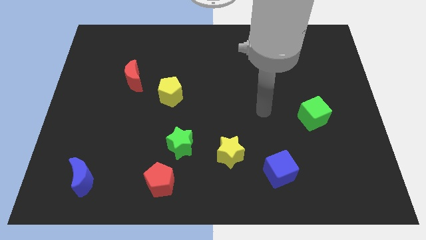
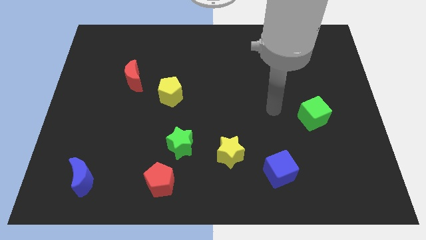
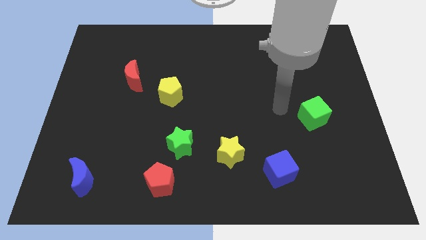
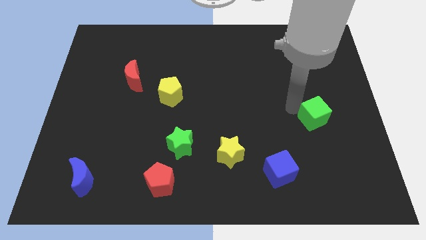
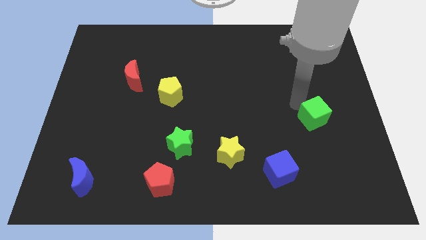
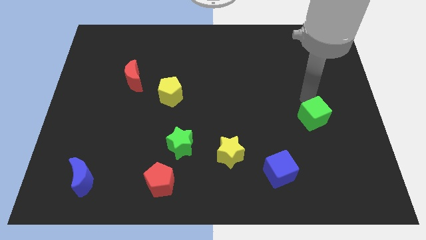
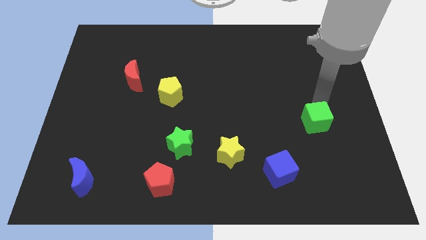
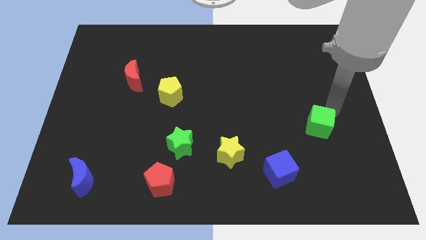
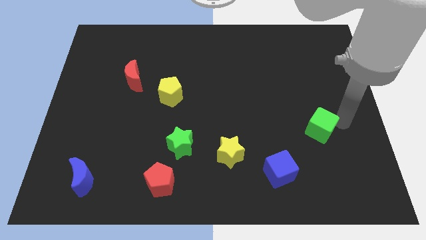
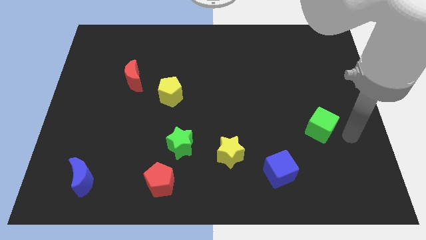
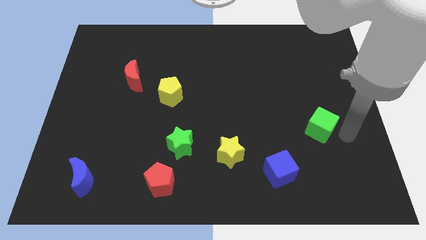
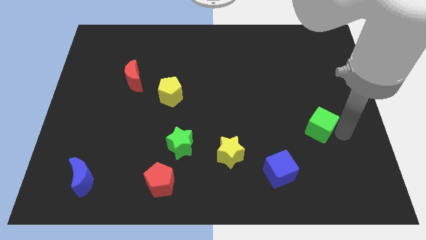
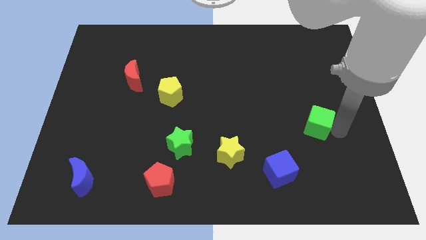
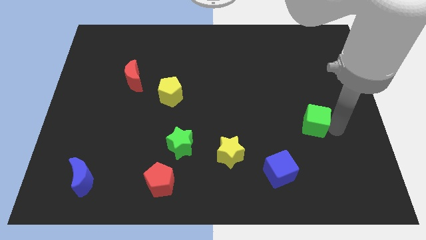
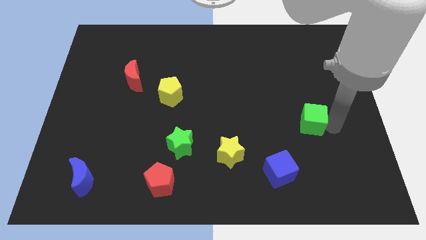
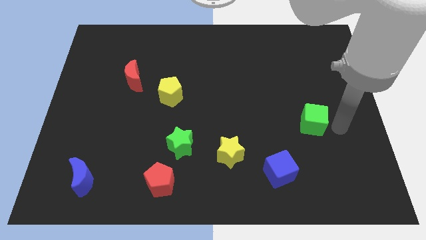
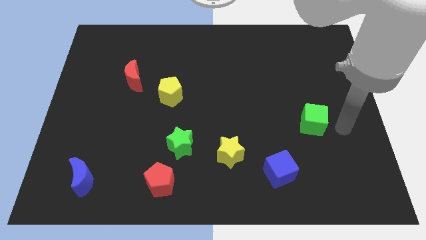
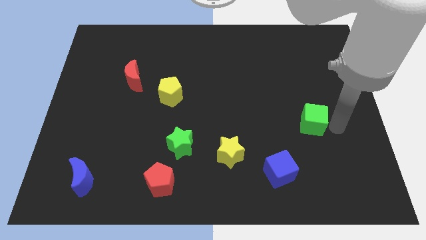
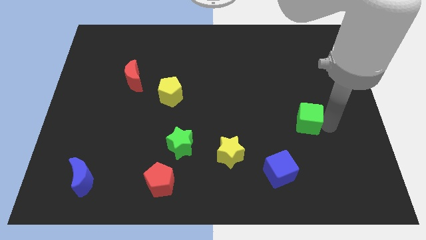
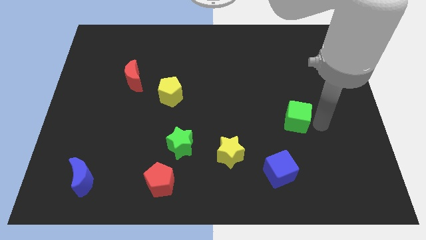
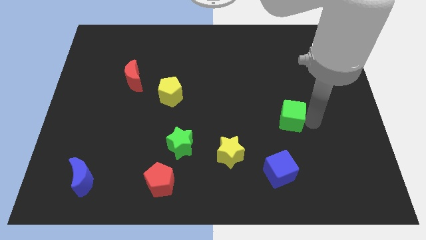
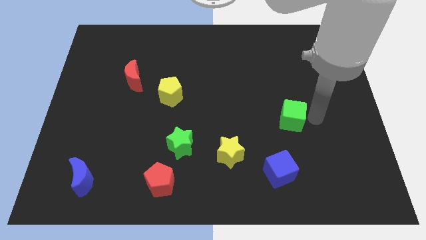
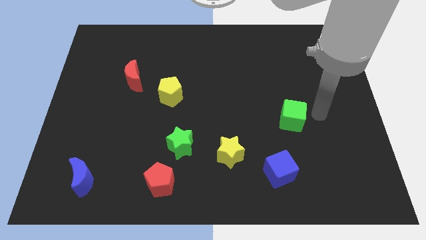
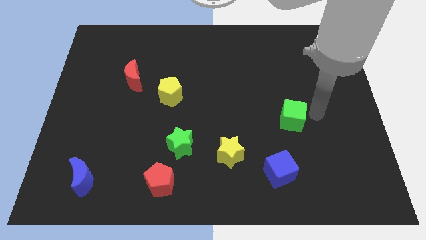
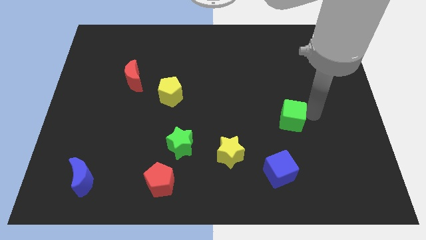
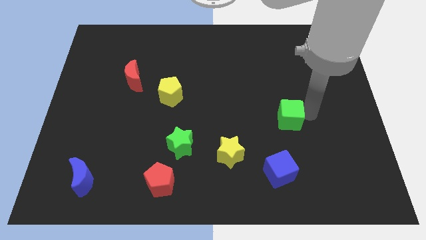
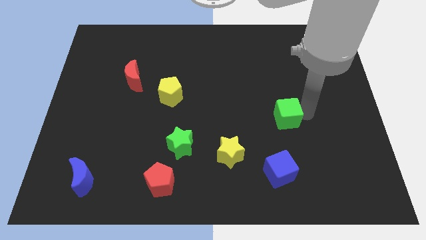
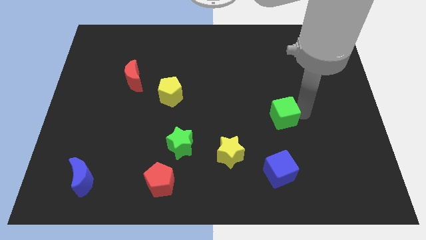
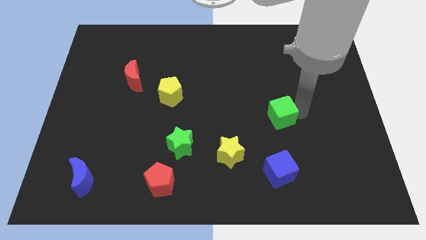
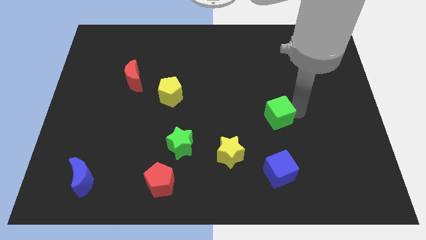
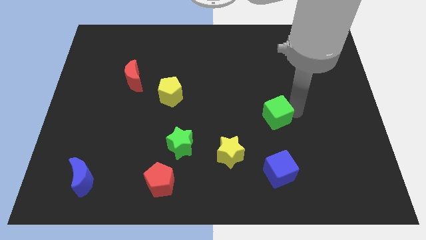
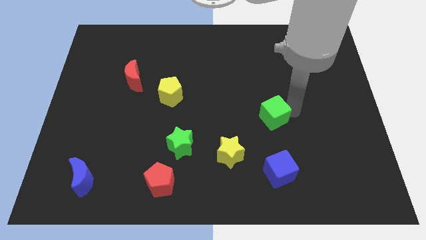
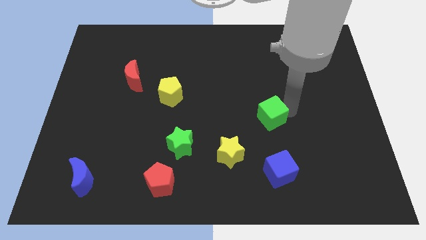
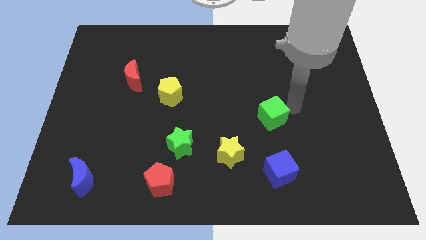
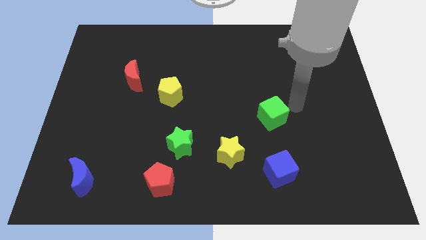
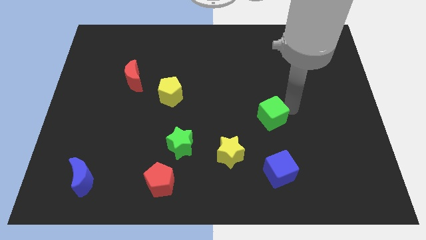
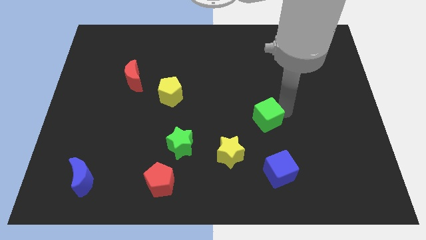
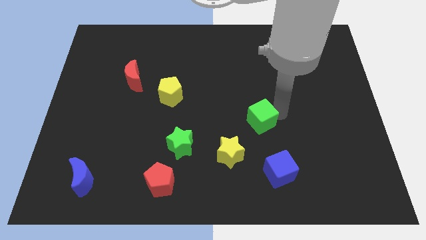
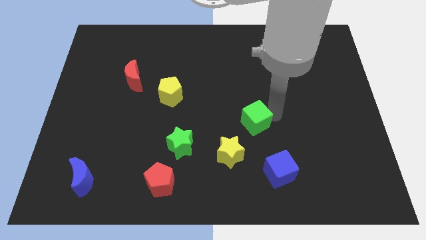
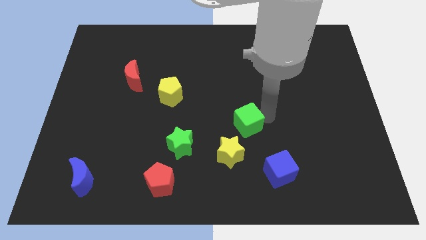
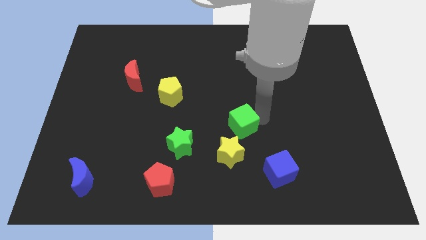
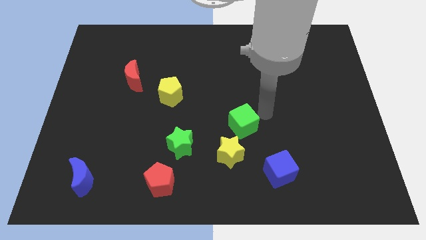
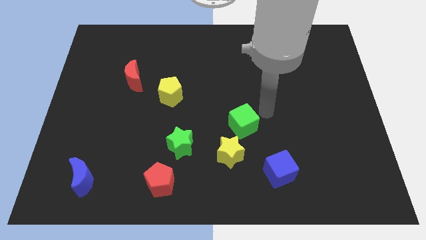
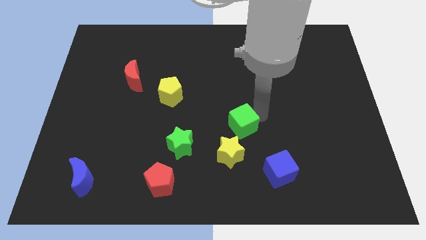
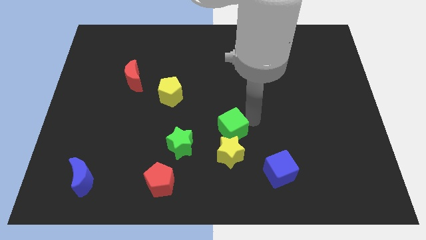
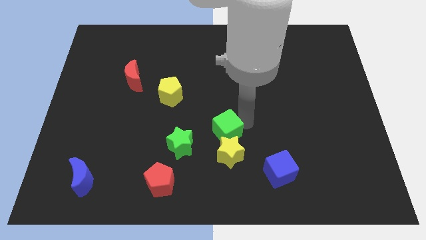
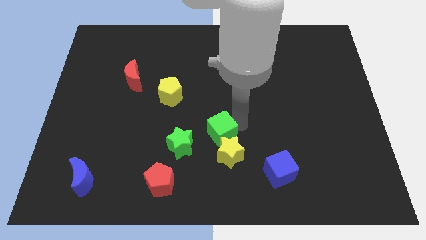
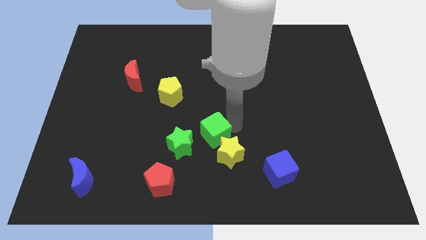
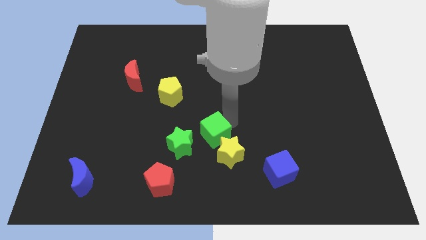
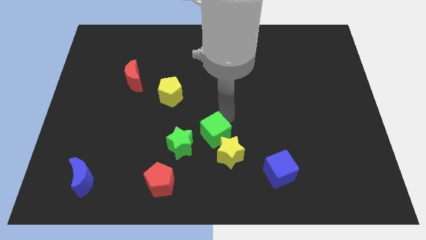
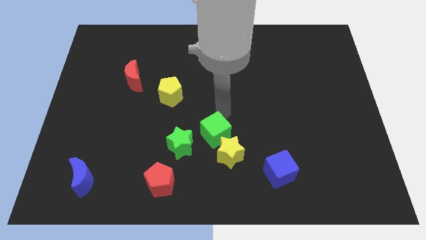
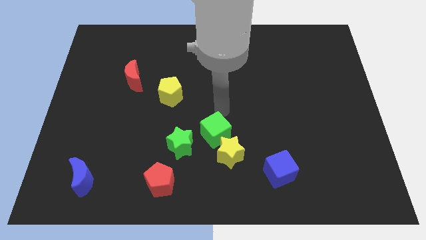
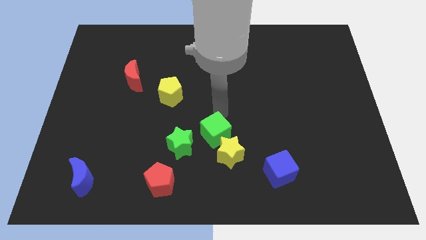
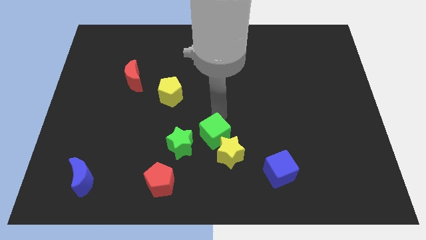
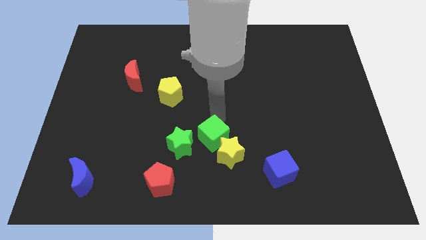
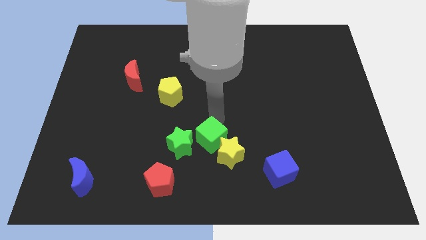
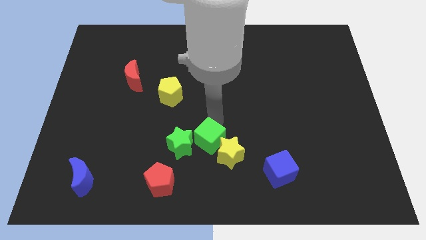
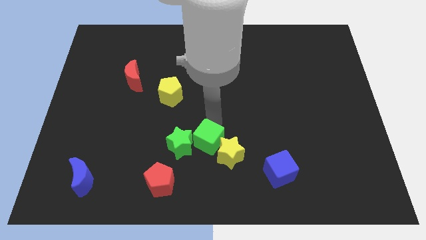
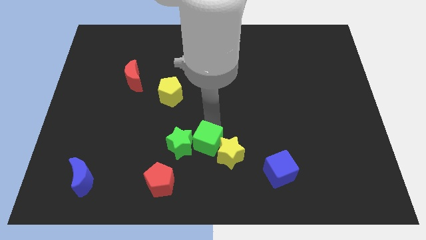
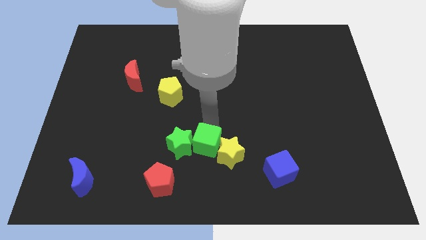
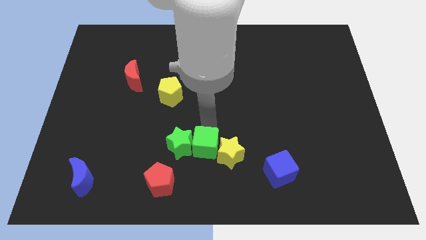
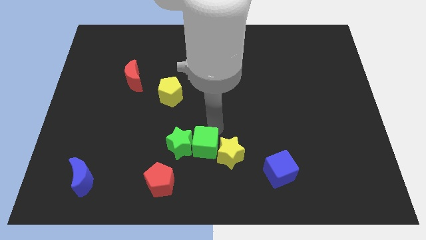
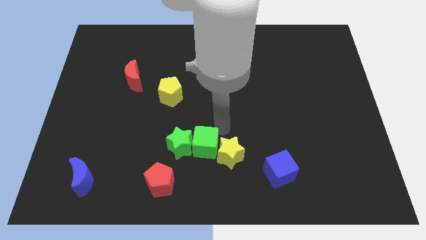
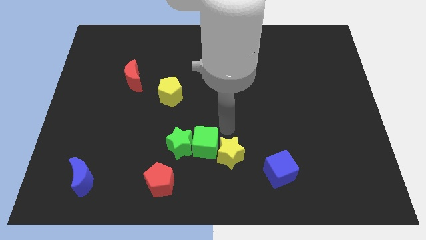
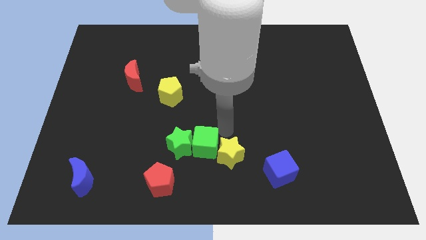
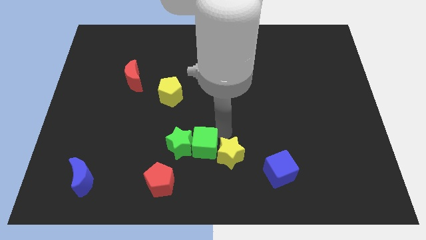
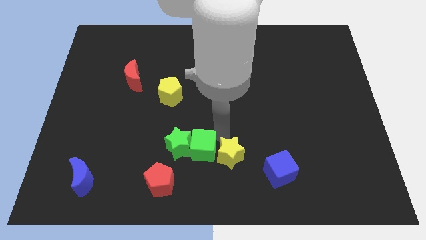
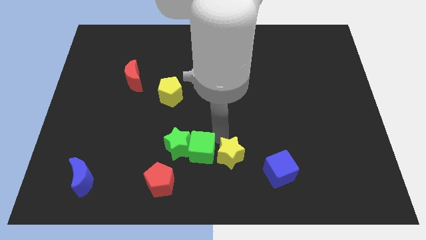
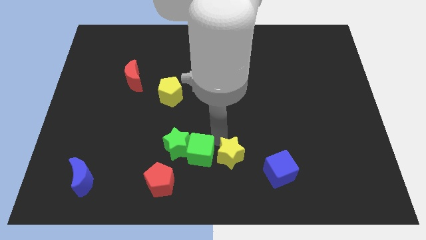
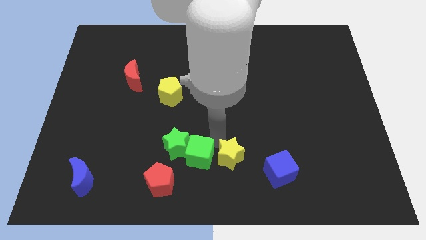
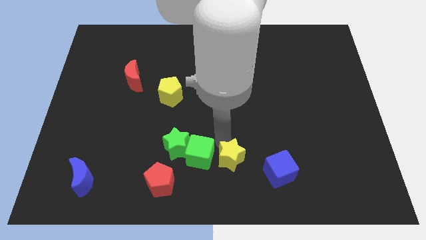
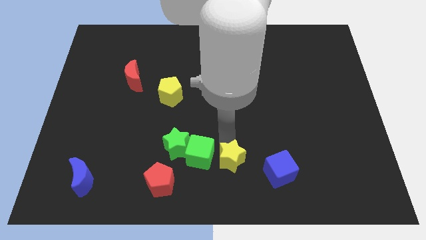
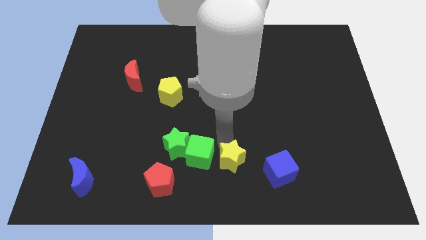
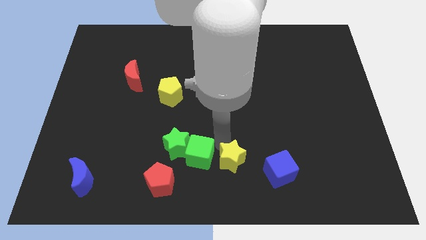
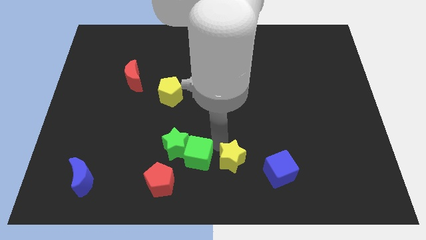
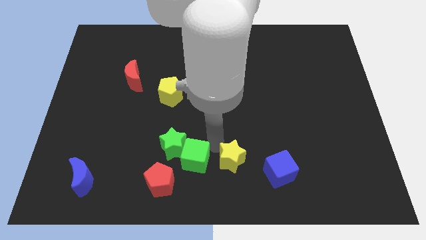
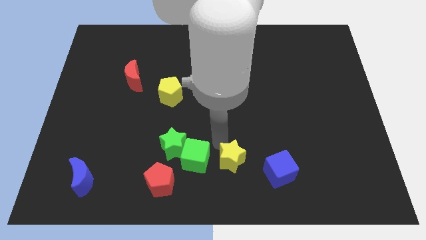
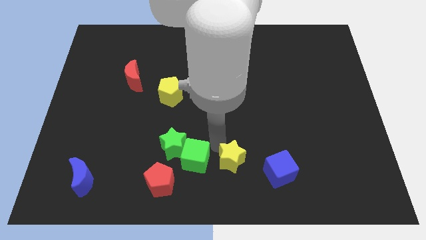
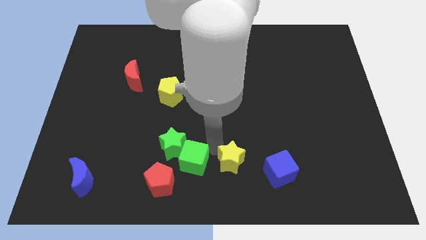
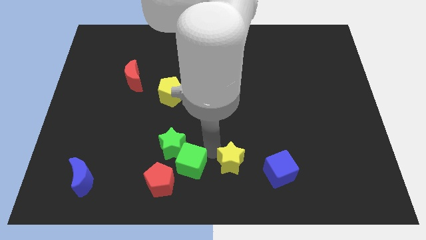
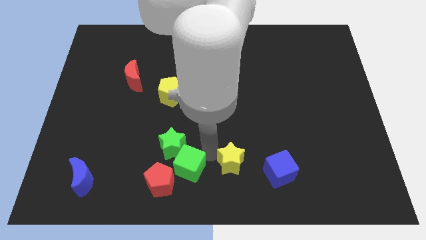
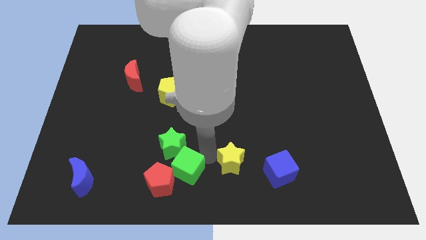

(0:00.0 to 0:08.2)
put the green cube towards the red pentagon
